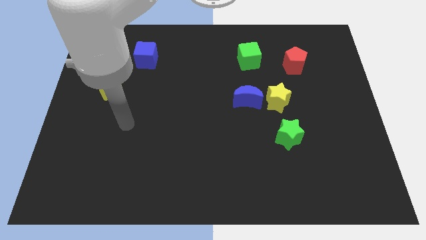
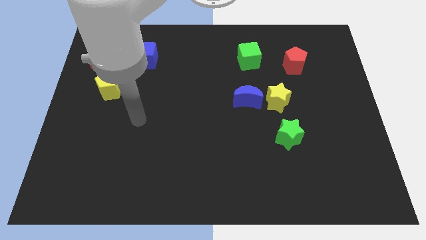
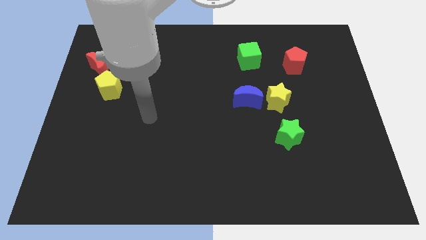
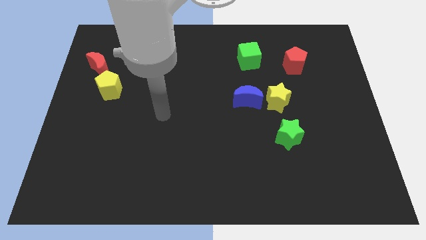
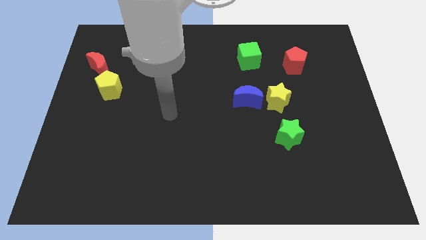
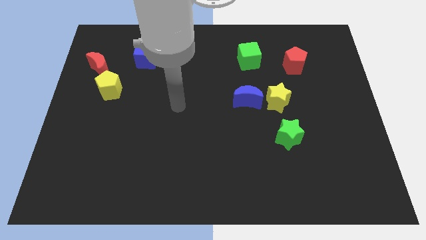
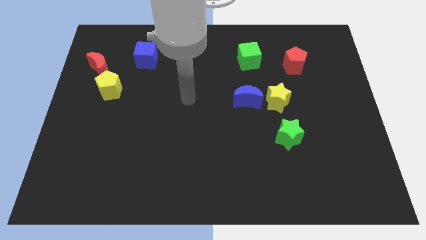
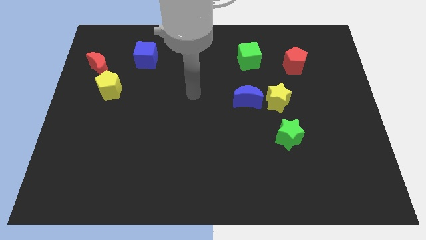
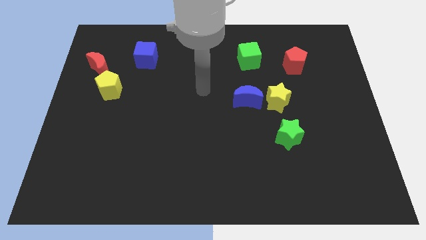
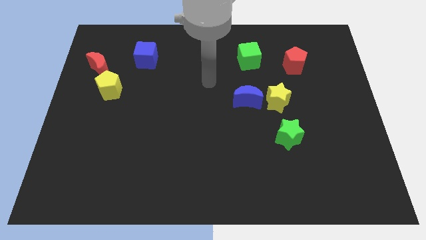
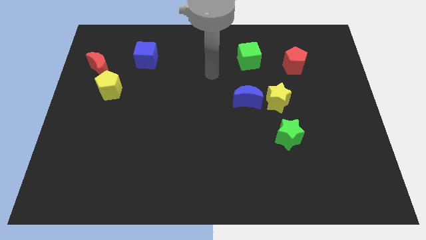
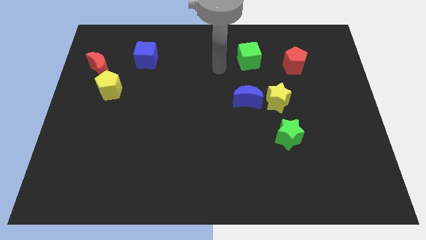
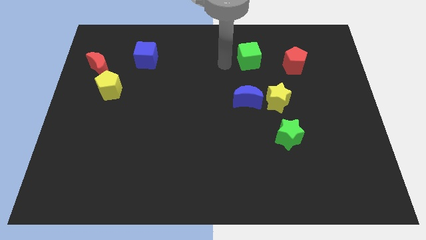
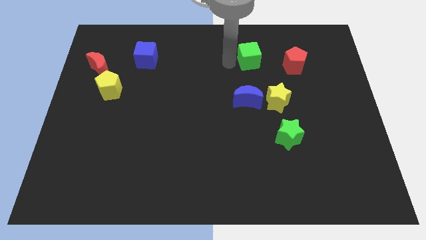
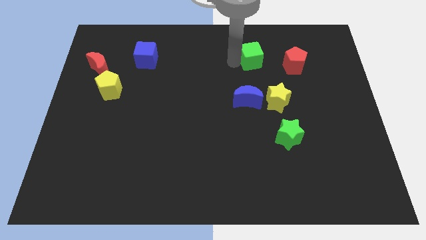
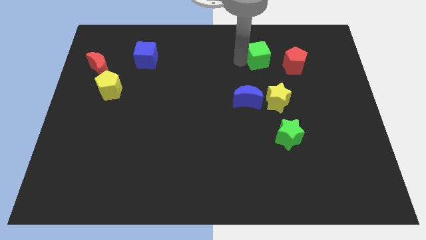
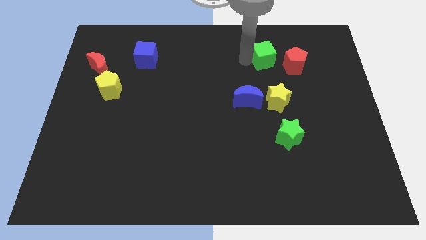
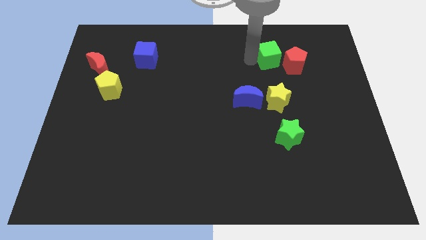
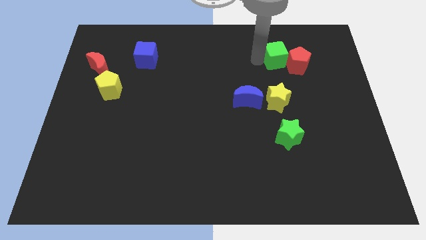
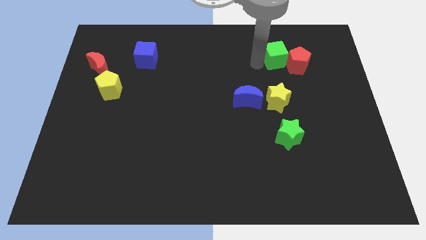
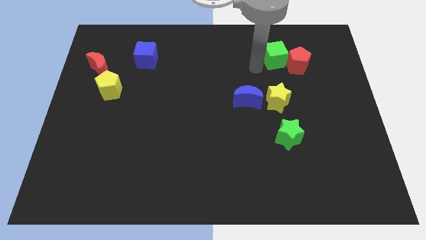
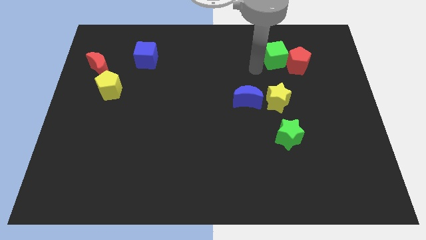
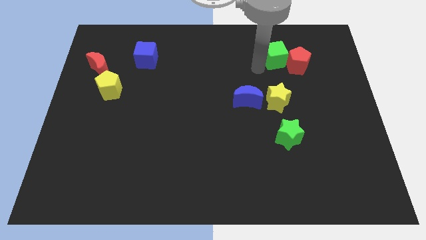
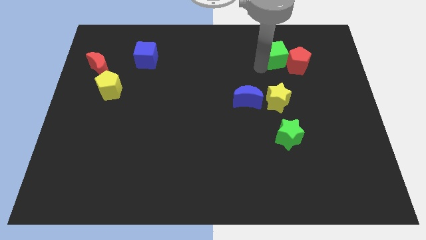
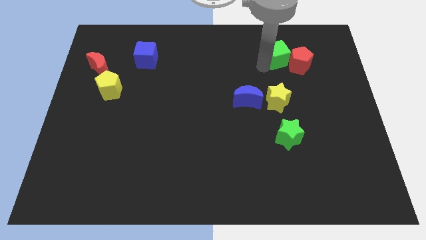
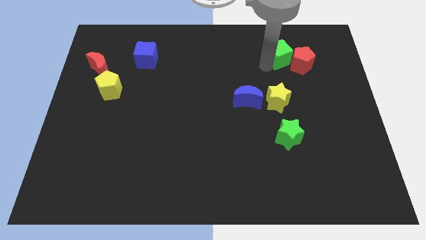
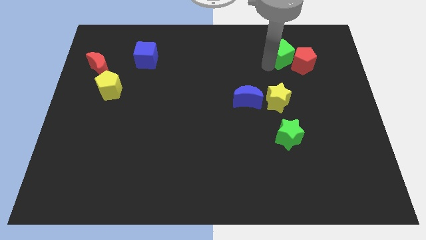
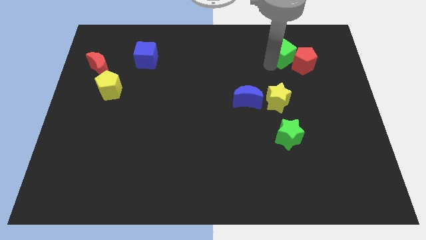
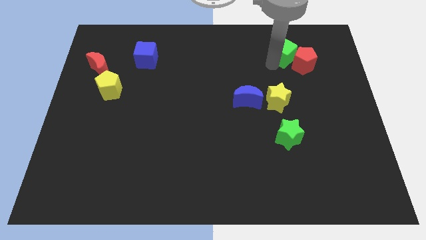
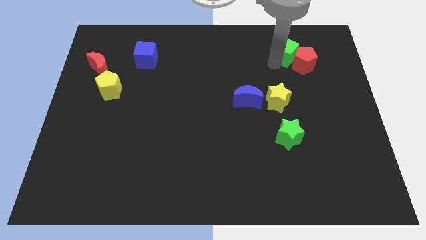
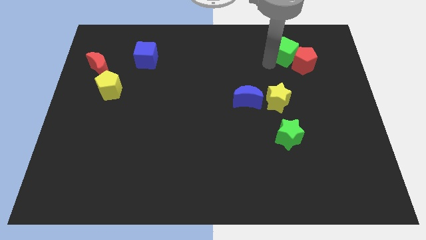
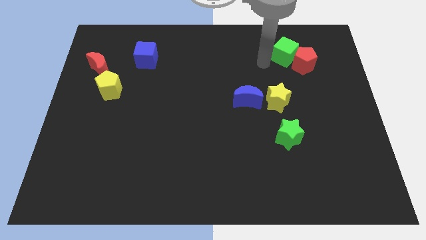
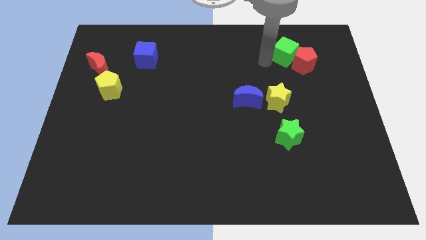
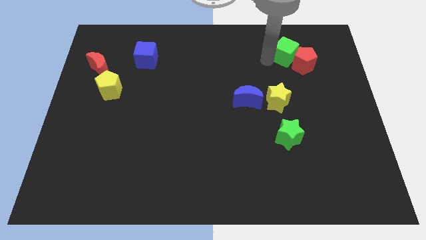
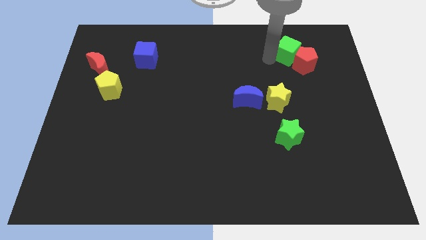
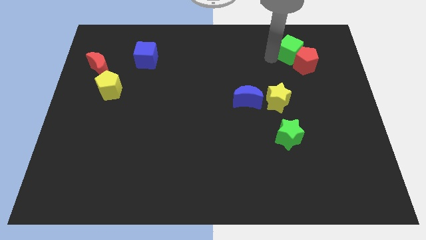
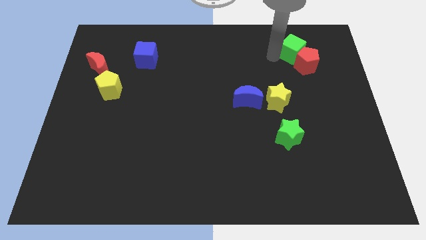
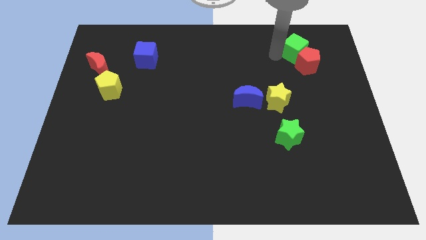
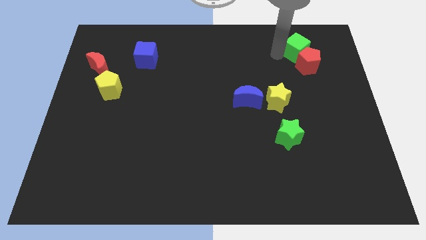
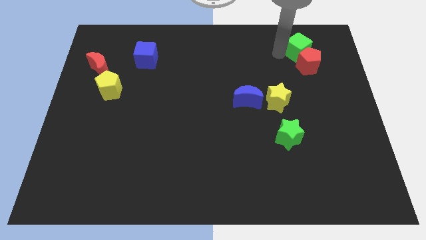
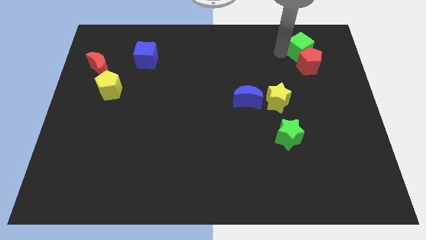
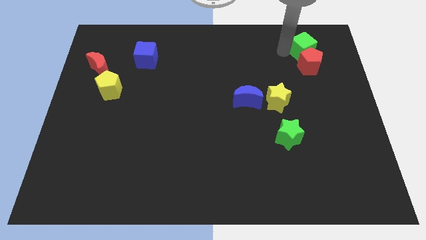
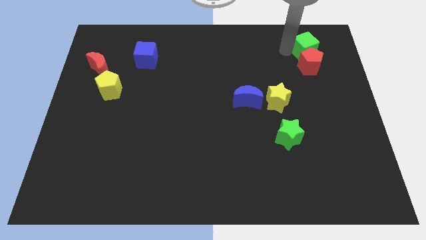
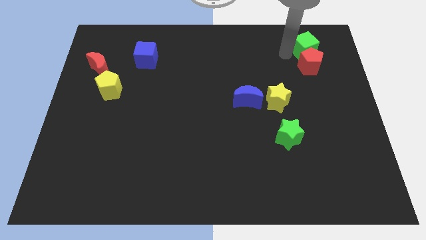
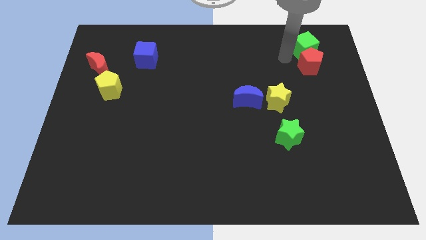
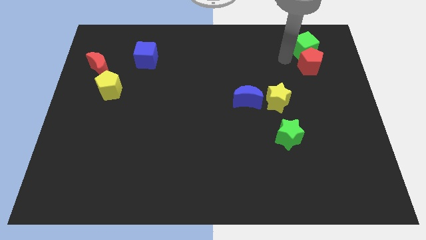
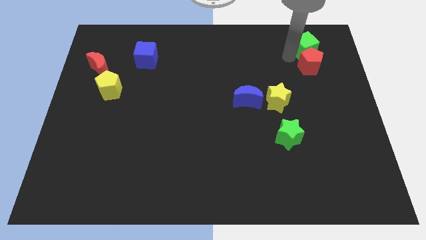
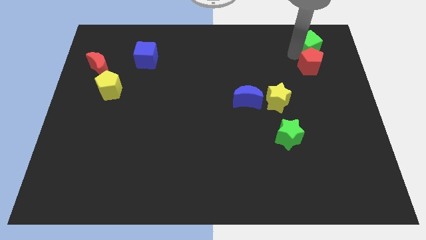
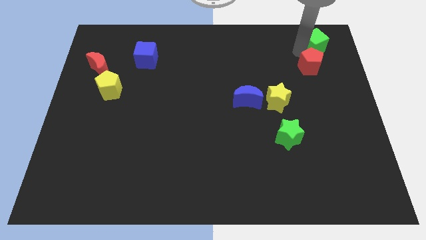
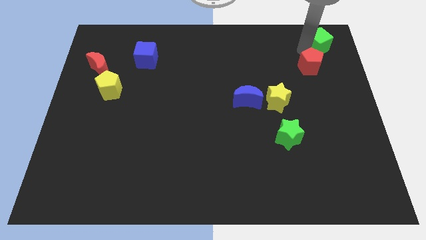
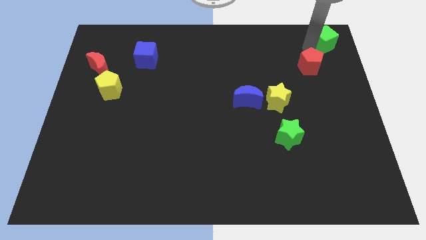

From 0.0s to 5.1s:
put the green cube to the upper right corner

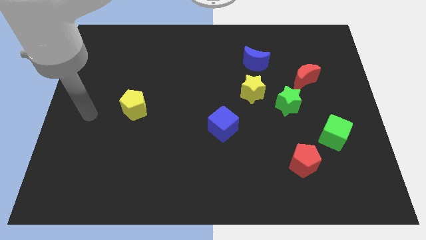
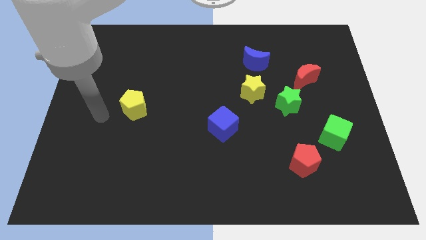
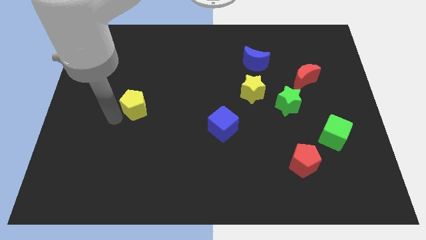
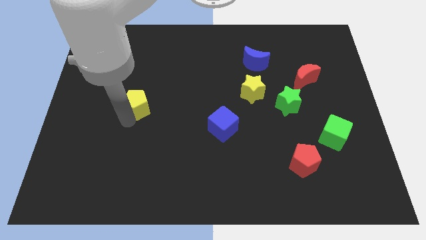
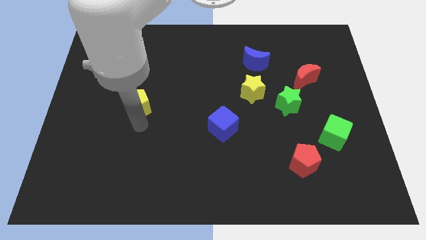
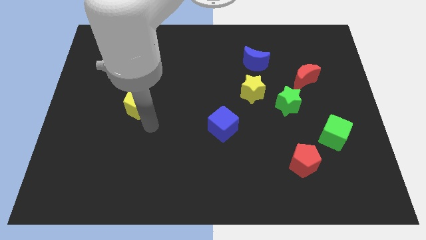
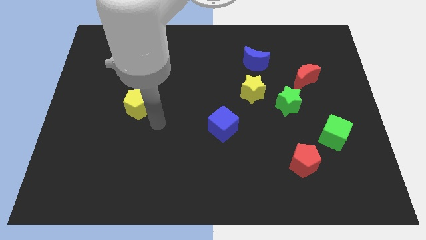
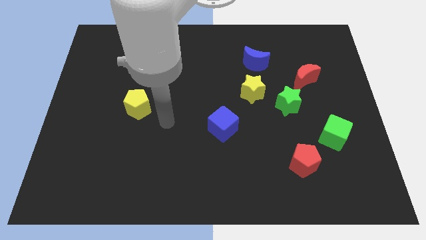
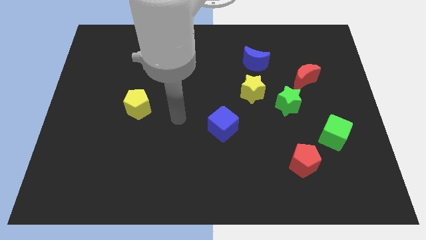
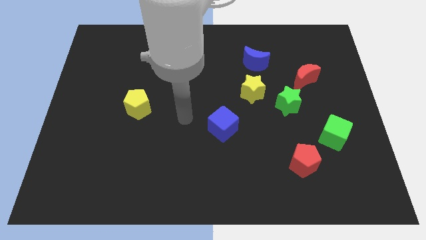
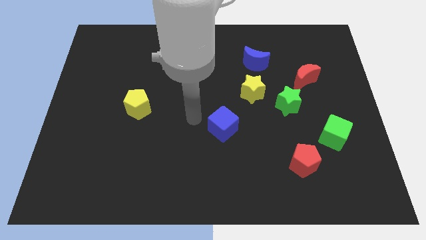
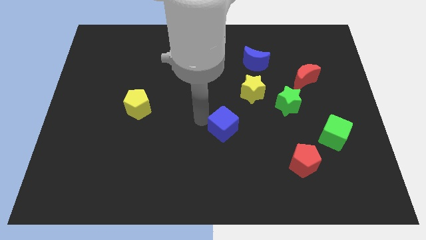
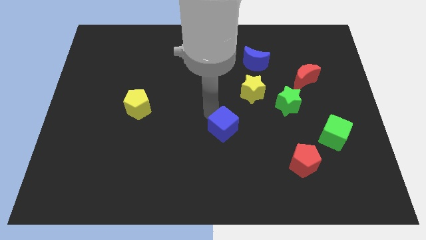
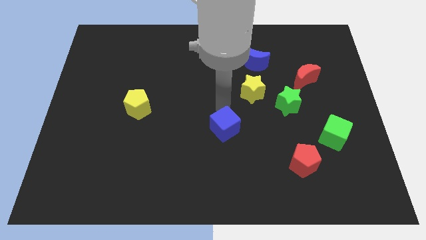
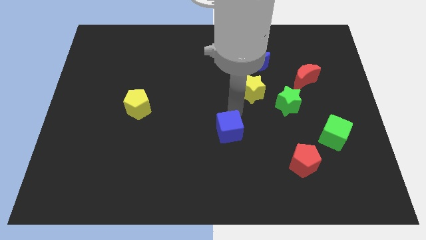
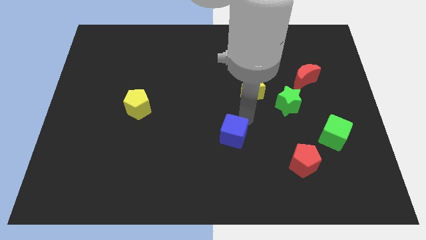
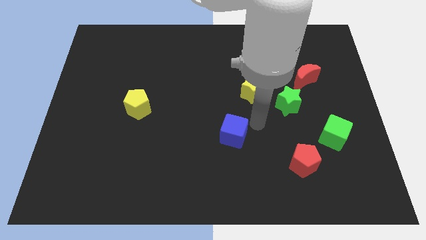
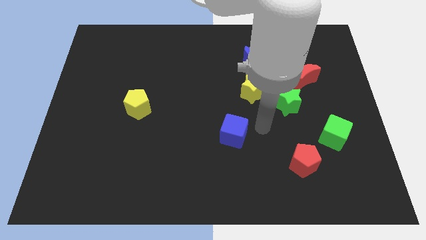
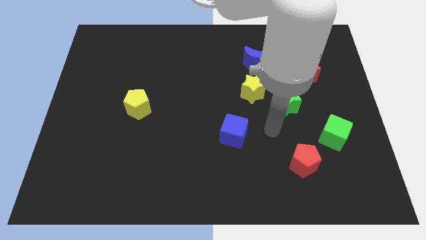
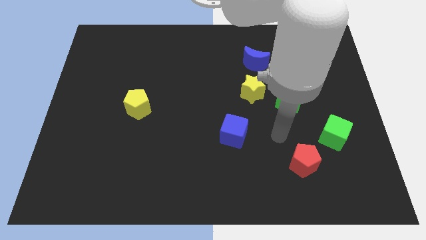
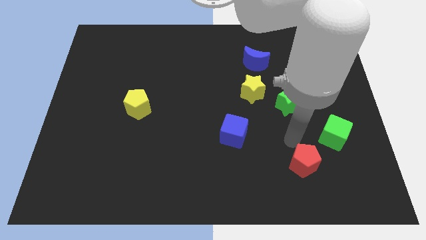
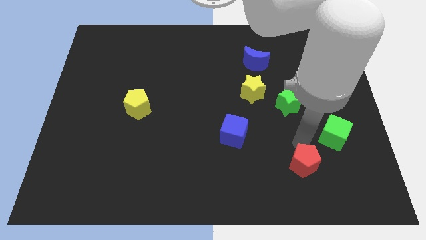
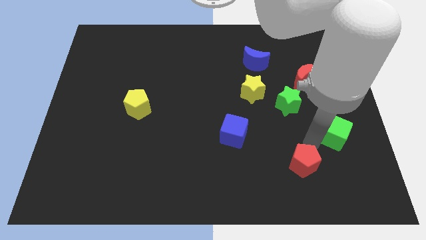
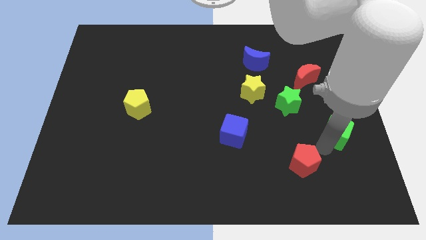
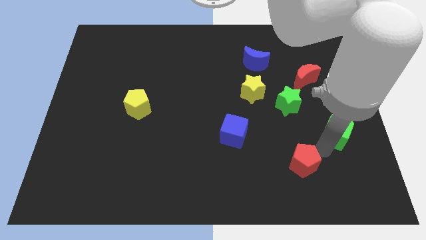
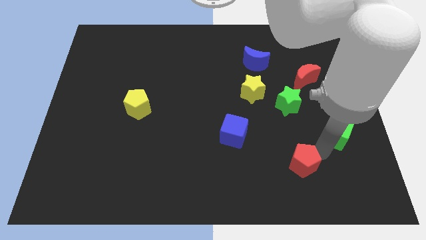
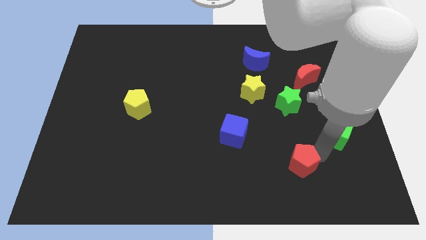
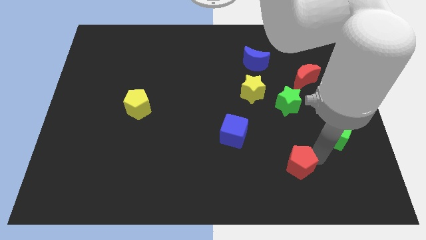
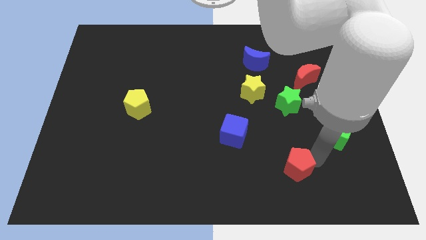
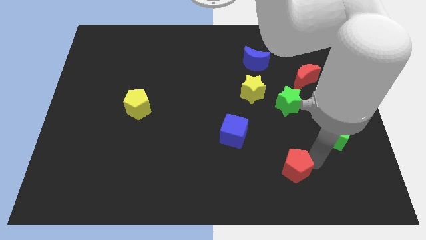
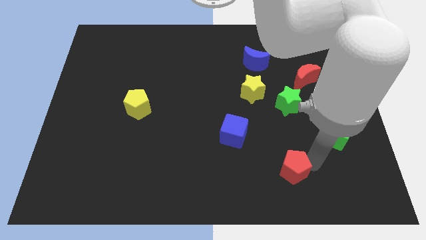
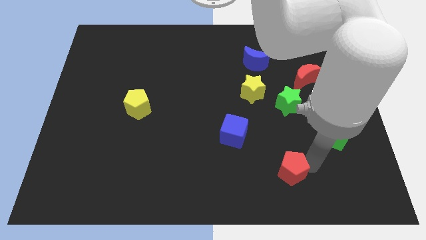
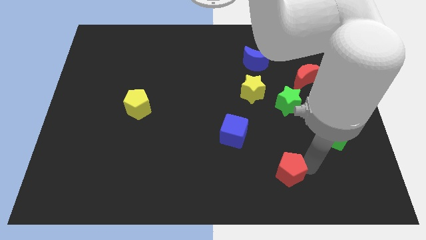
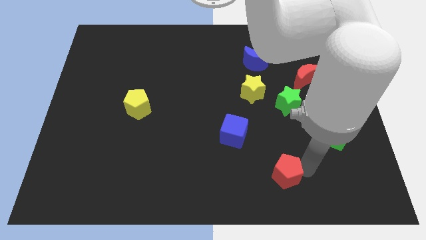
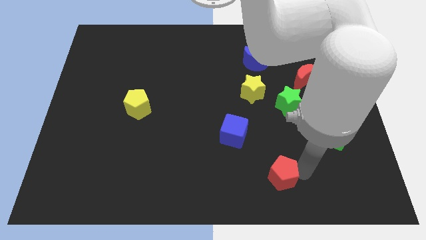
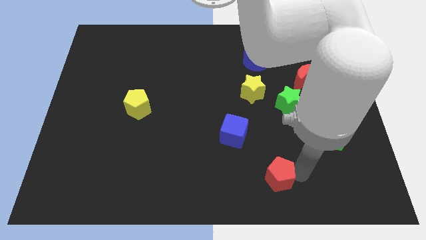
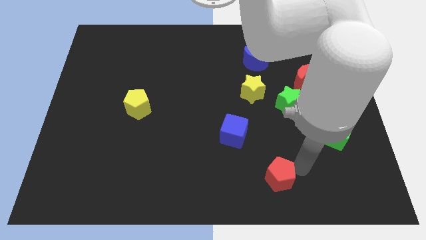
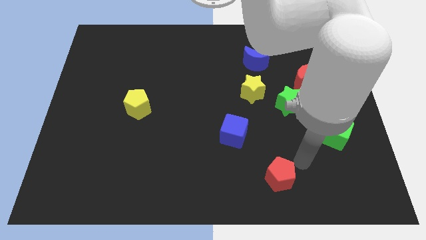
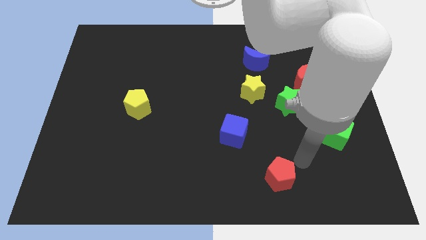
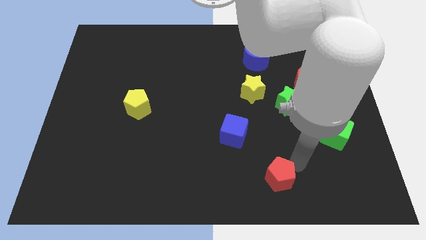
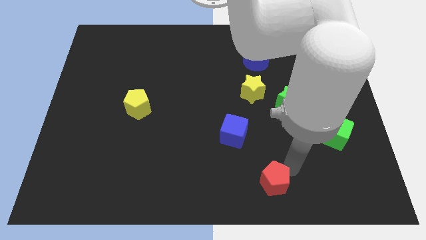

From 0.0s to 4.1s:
move the red pentagon to the bottom side
